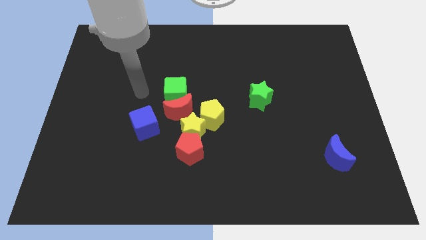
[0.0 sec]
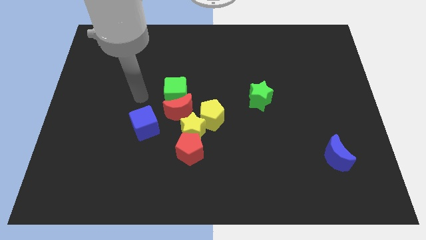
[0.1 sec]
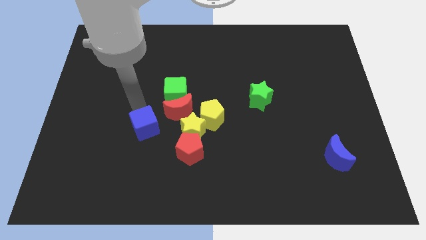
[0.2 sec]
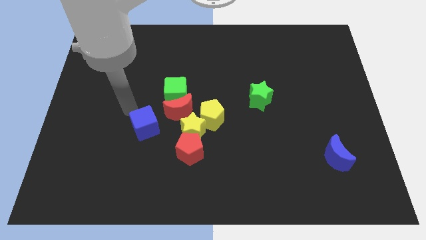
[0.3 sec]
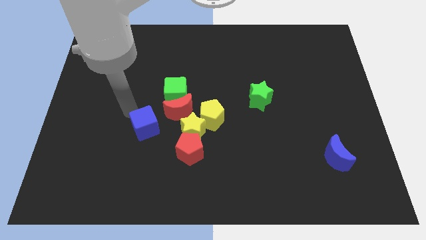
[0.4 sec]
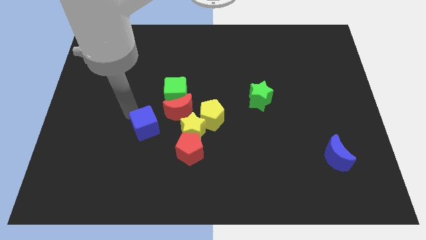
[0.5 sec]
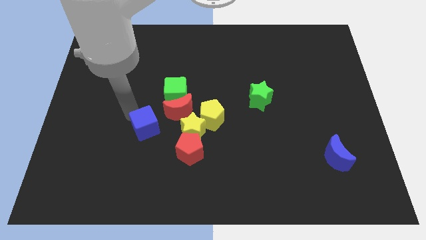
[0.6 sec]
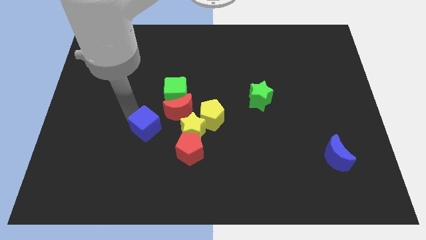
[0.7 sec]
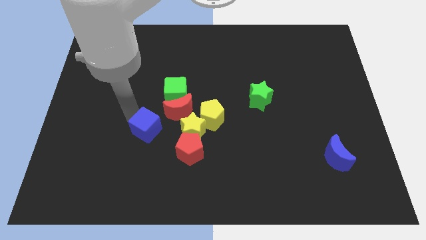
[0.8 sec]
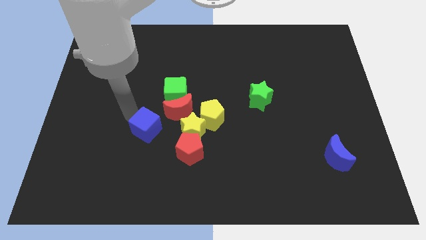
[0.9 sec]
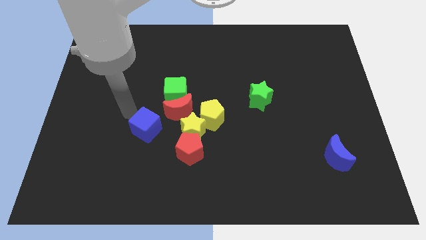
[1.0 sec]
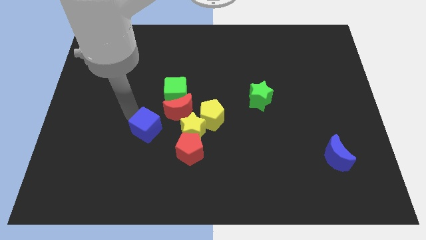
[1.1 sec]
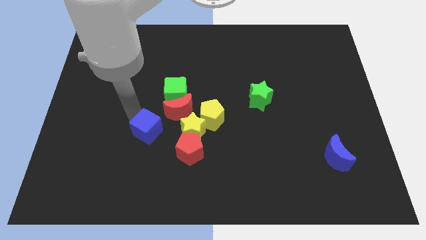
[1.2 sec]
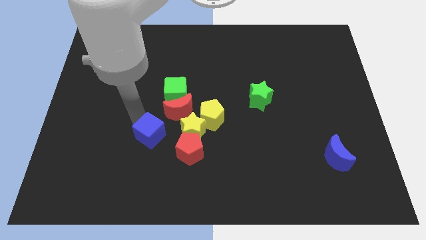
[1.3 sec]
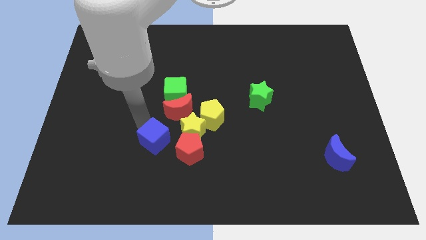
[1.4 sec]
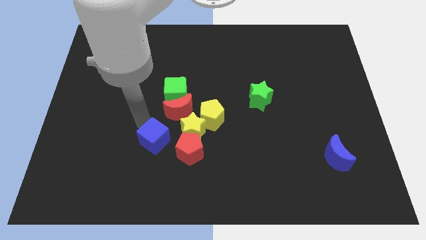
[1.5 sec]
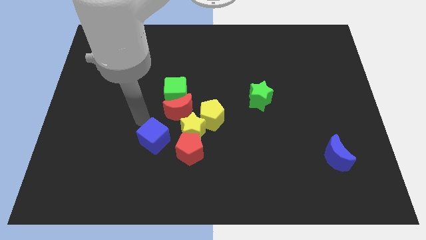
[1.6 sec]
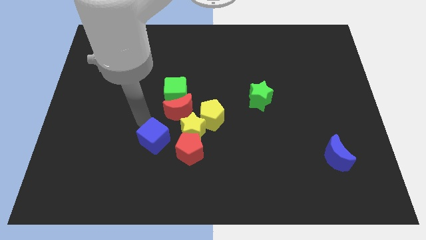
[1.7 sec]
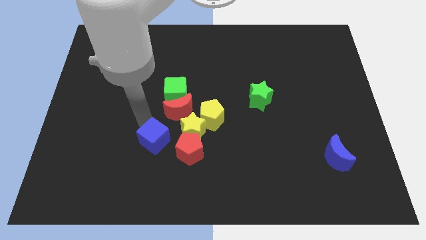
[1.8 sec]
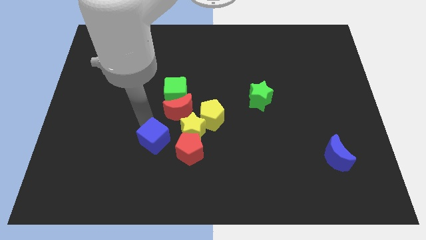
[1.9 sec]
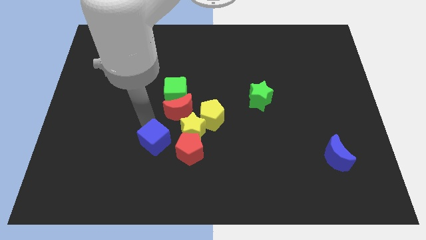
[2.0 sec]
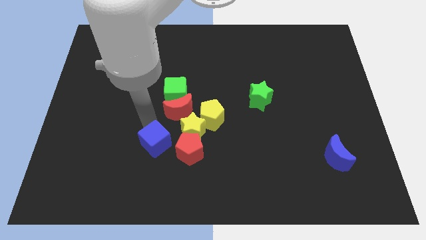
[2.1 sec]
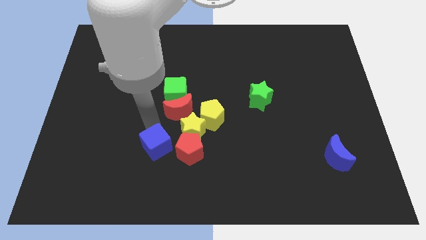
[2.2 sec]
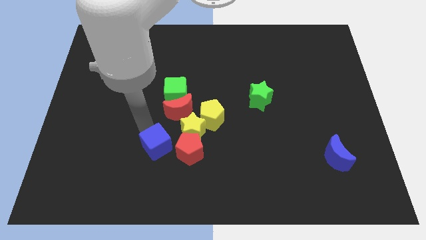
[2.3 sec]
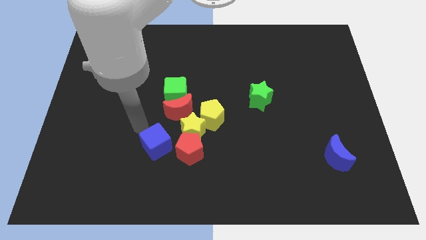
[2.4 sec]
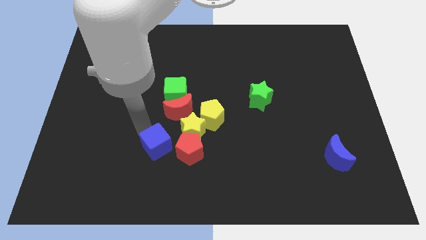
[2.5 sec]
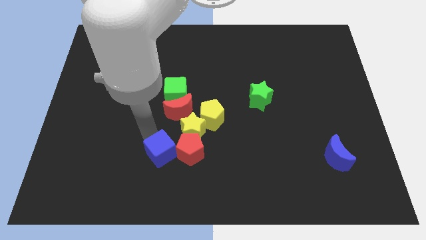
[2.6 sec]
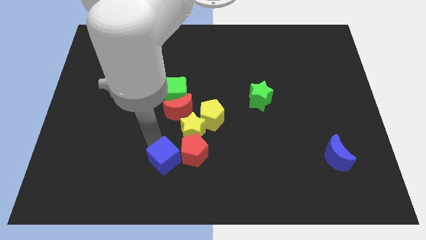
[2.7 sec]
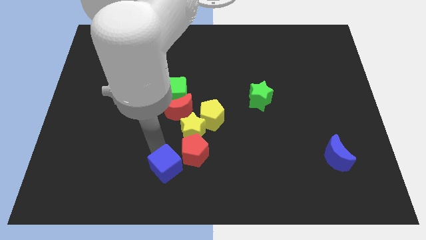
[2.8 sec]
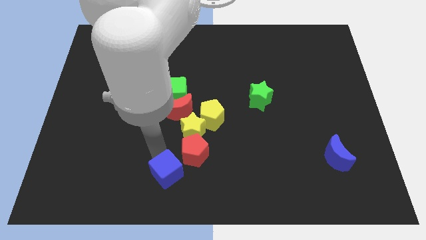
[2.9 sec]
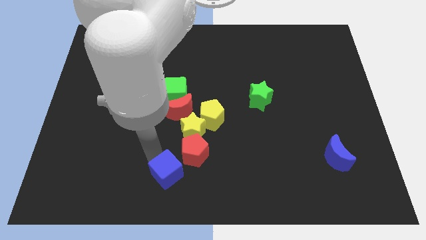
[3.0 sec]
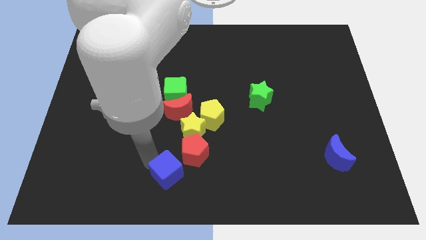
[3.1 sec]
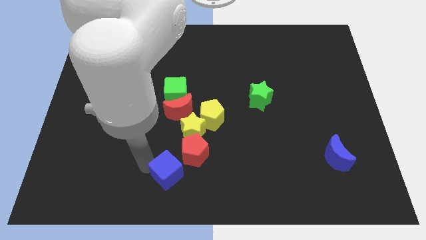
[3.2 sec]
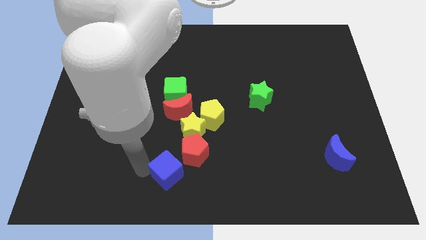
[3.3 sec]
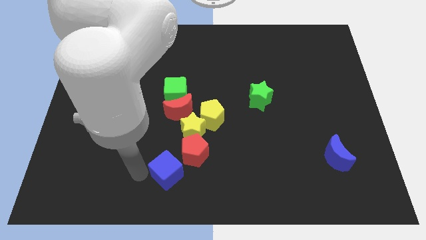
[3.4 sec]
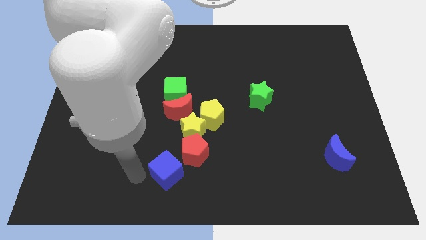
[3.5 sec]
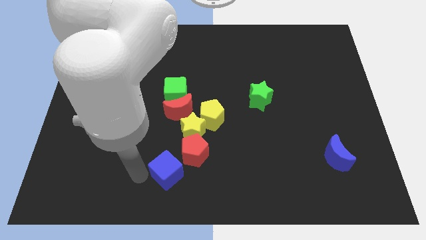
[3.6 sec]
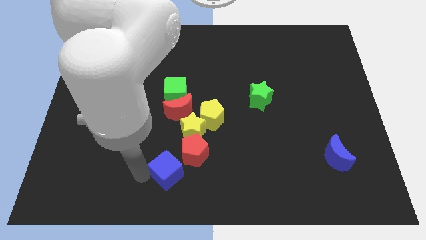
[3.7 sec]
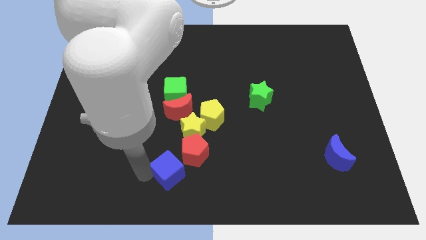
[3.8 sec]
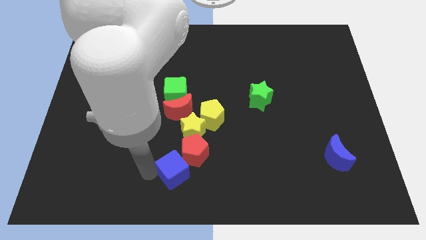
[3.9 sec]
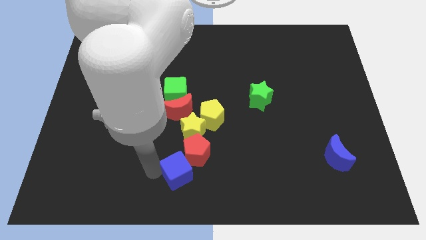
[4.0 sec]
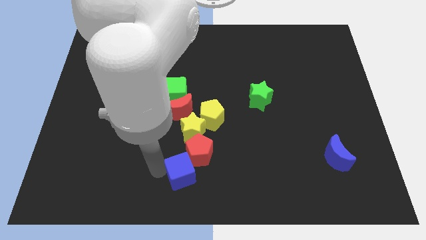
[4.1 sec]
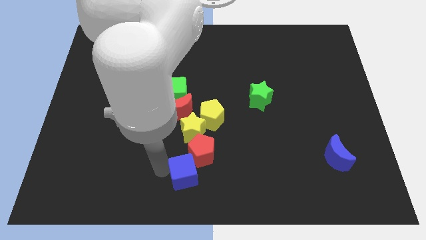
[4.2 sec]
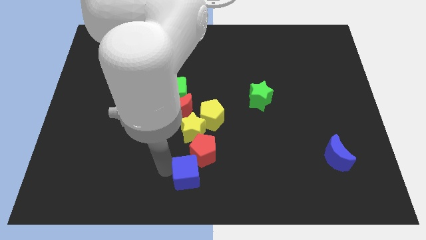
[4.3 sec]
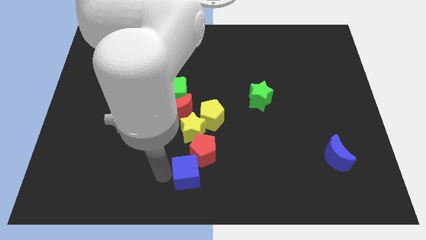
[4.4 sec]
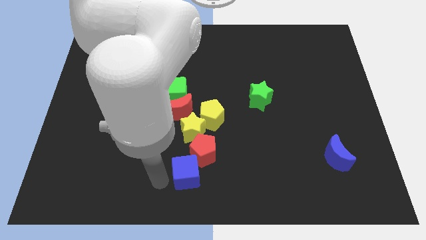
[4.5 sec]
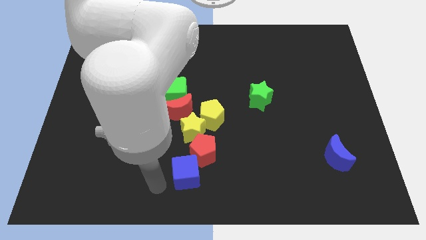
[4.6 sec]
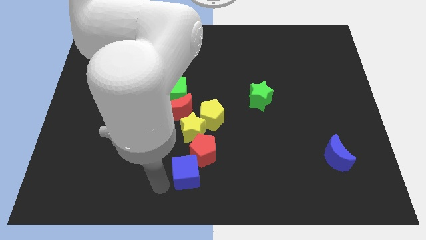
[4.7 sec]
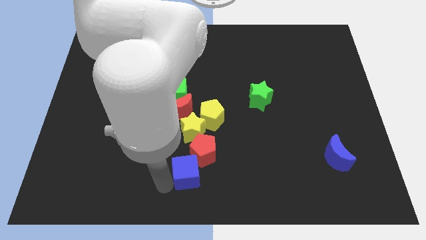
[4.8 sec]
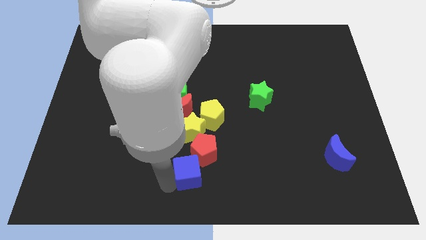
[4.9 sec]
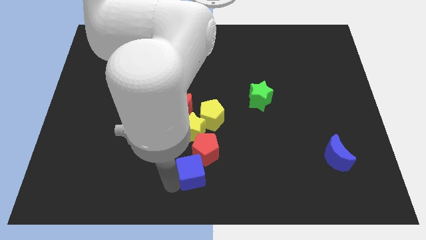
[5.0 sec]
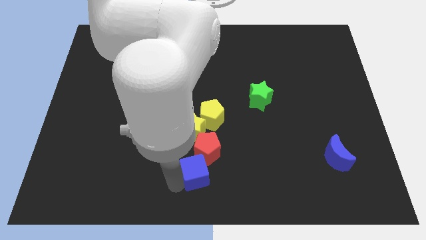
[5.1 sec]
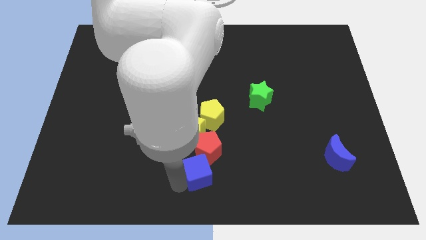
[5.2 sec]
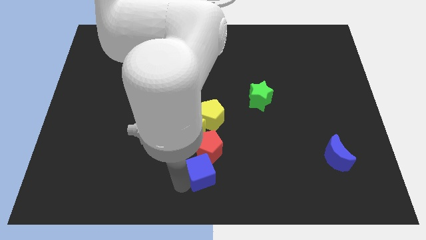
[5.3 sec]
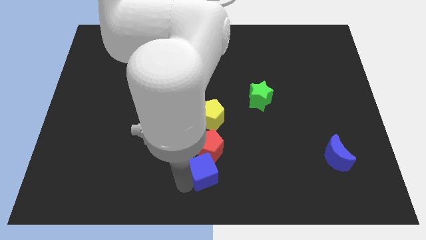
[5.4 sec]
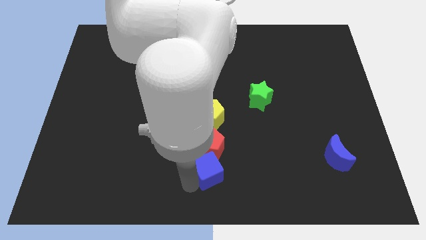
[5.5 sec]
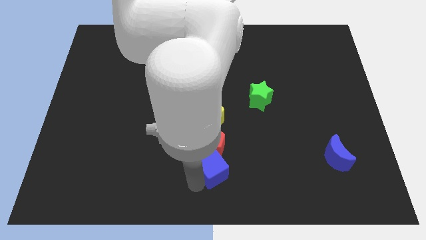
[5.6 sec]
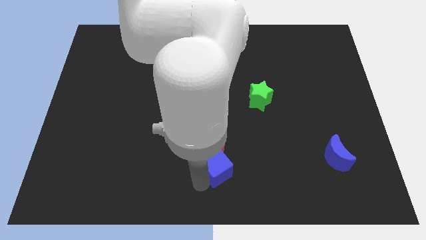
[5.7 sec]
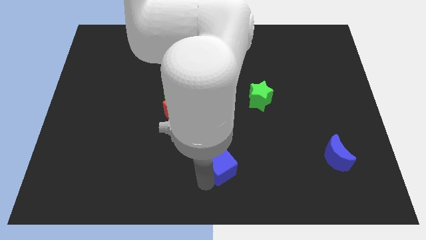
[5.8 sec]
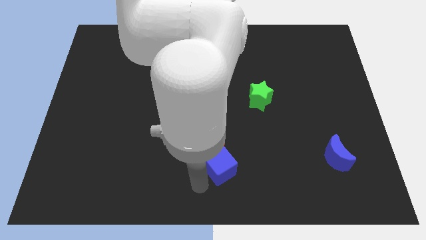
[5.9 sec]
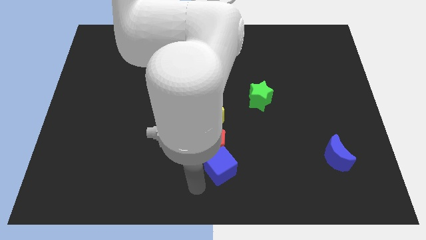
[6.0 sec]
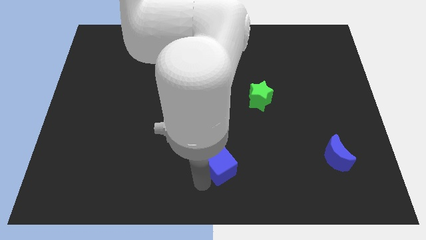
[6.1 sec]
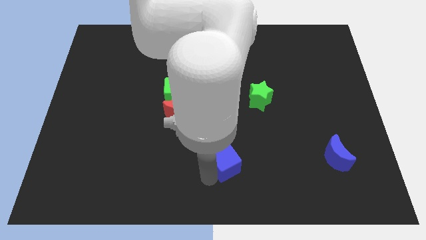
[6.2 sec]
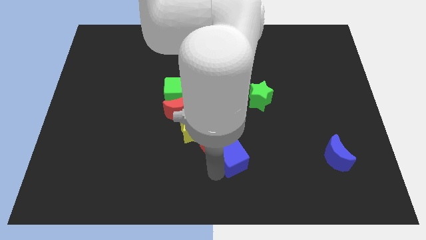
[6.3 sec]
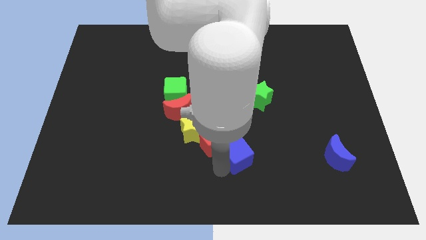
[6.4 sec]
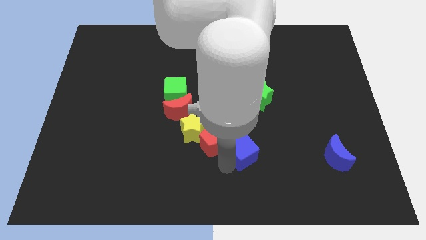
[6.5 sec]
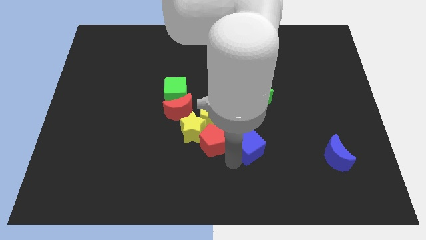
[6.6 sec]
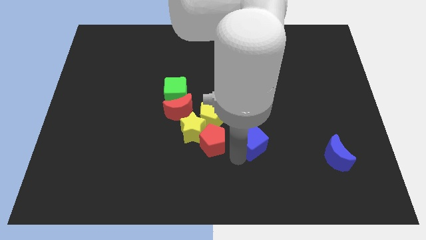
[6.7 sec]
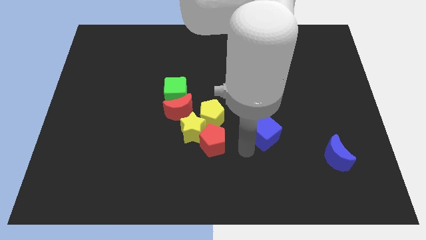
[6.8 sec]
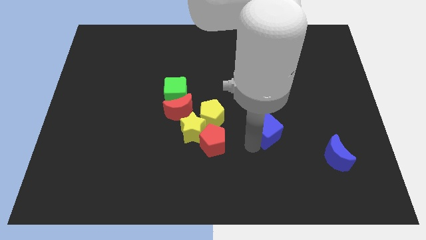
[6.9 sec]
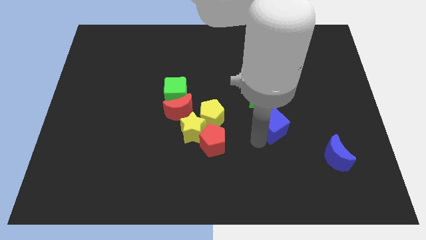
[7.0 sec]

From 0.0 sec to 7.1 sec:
slide the blue cube to the bottom right of the green star

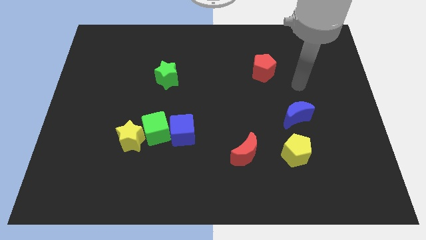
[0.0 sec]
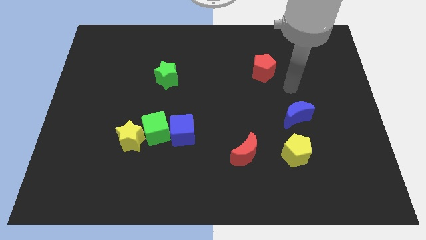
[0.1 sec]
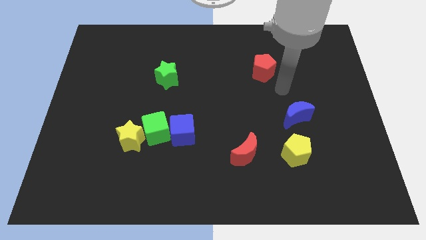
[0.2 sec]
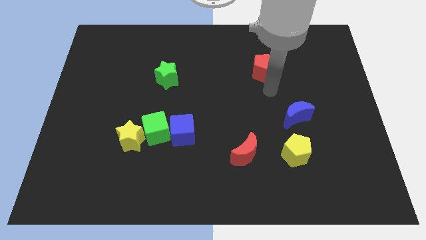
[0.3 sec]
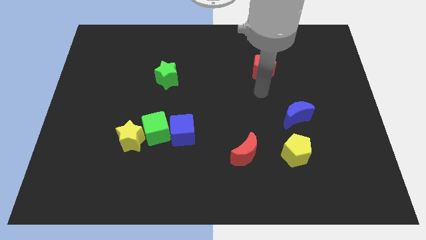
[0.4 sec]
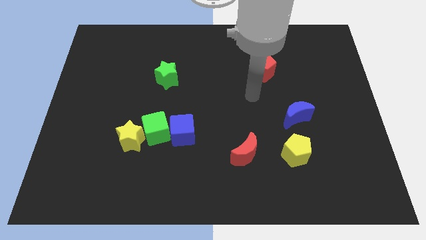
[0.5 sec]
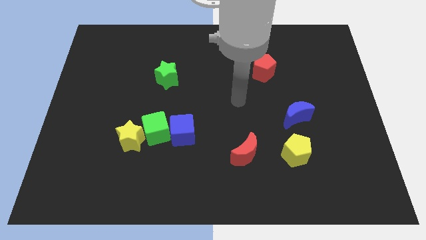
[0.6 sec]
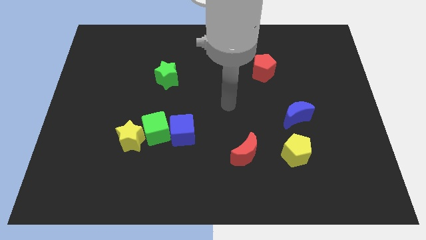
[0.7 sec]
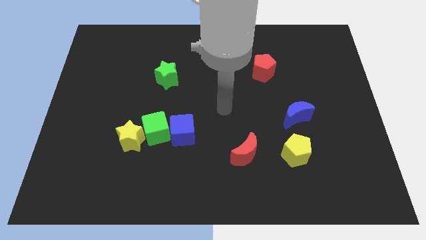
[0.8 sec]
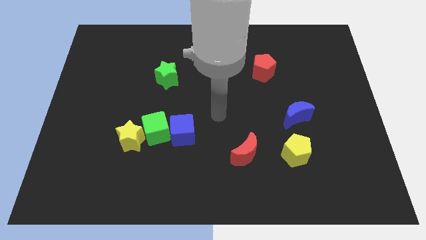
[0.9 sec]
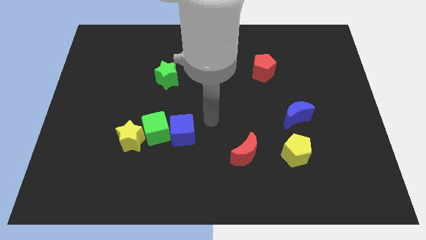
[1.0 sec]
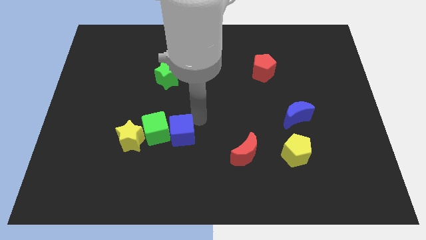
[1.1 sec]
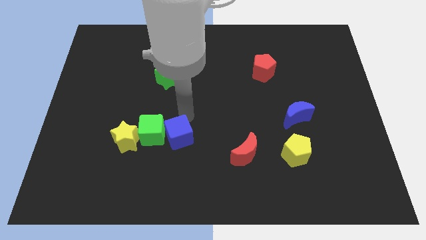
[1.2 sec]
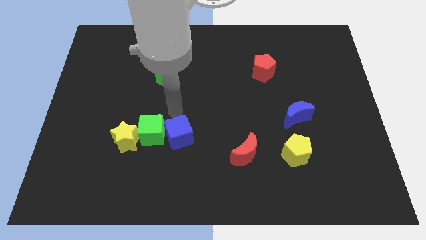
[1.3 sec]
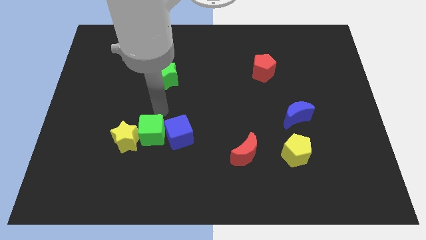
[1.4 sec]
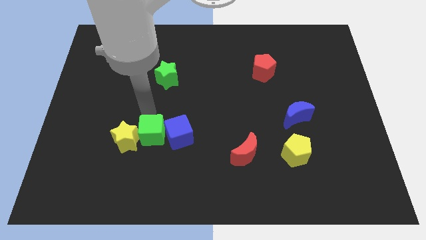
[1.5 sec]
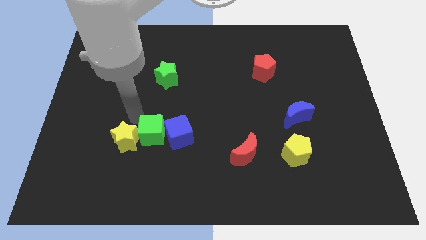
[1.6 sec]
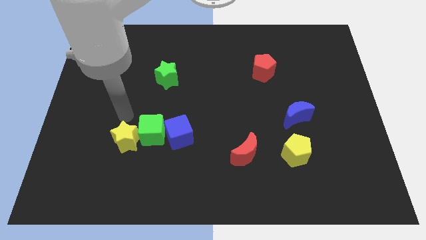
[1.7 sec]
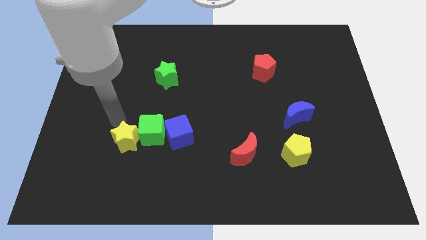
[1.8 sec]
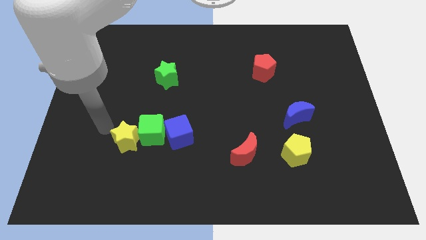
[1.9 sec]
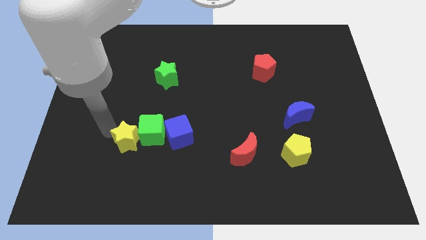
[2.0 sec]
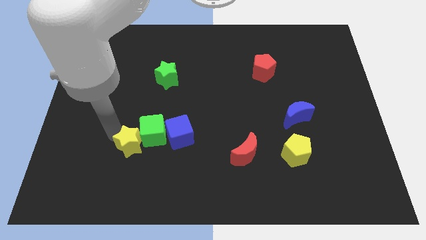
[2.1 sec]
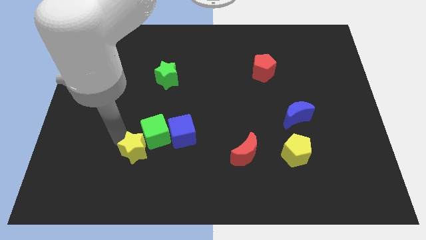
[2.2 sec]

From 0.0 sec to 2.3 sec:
push the yellow star to the bottom left of the blue cube
